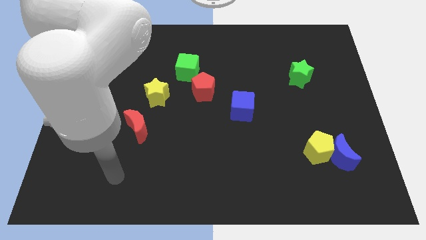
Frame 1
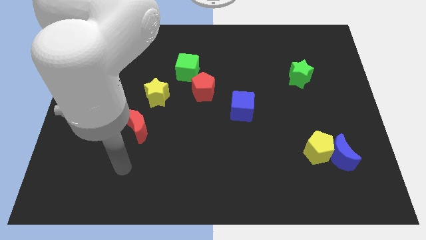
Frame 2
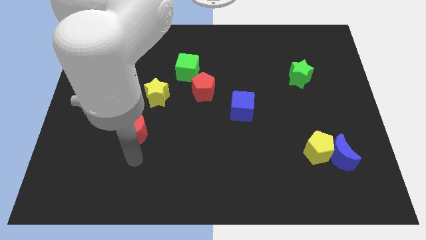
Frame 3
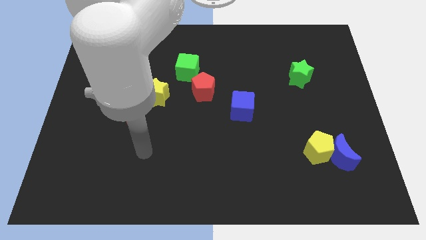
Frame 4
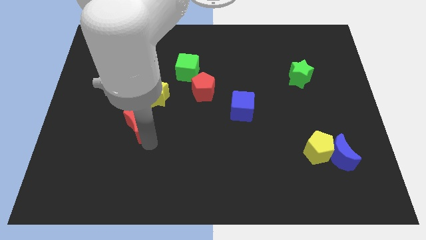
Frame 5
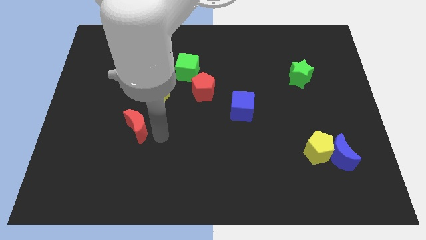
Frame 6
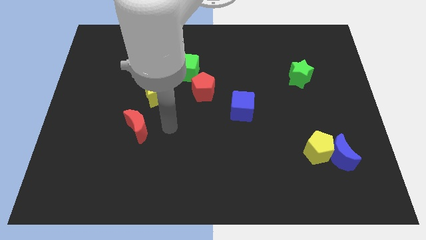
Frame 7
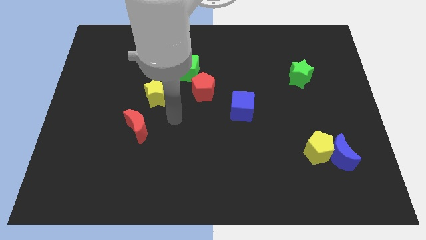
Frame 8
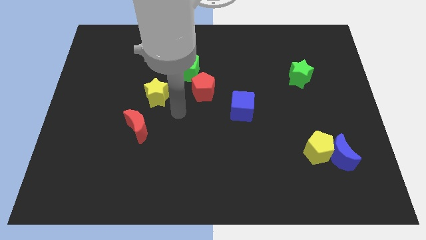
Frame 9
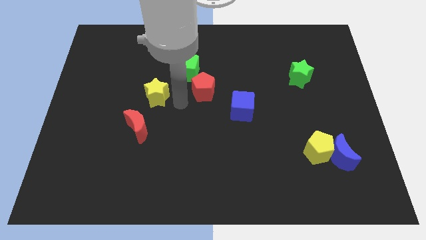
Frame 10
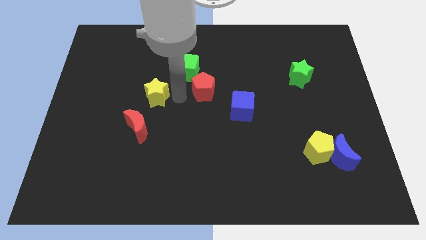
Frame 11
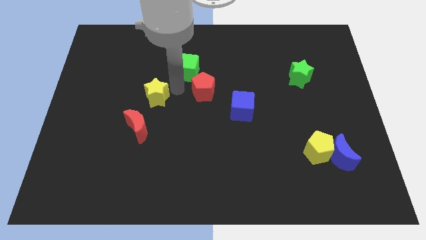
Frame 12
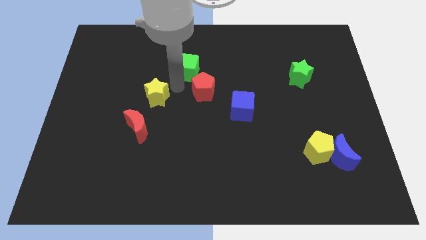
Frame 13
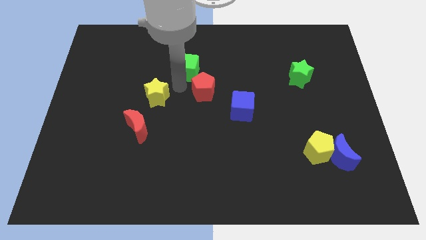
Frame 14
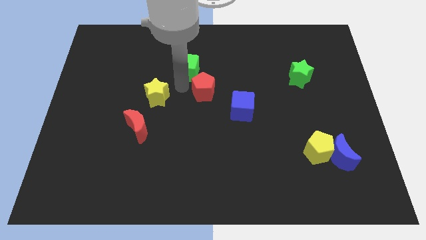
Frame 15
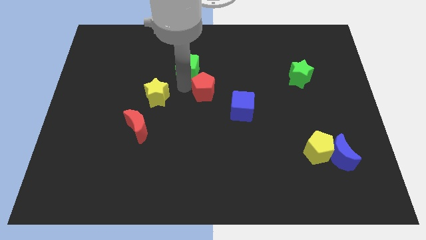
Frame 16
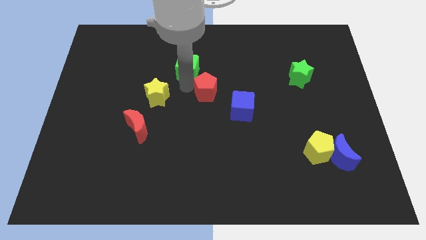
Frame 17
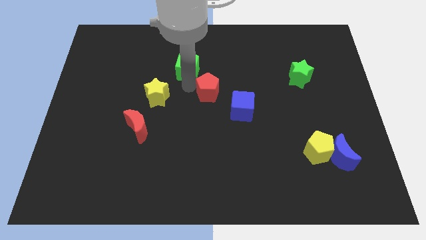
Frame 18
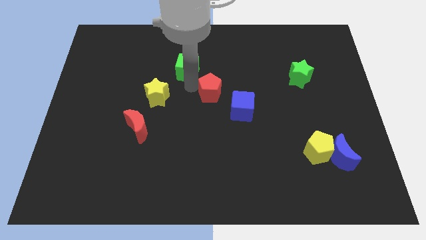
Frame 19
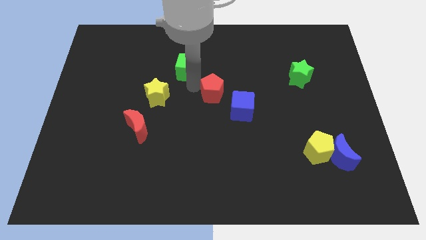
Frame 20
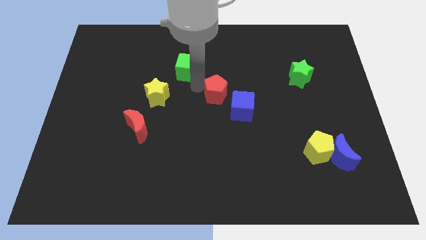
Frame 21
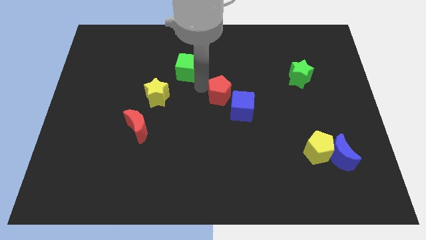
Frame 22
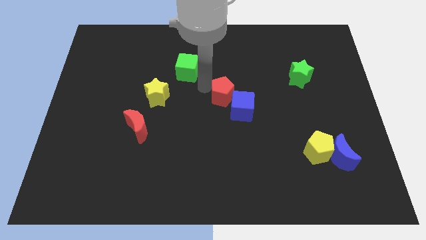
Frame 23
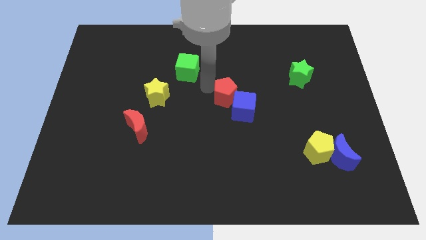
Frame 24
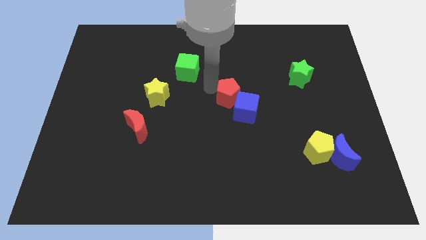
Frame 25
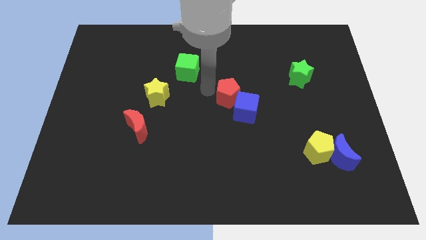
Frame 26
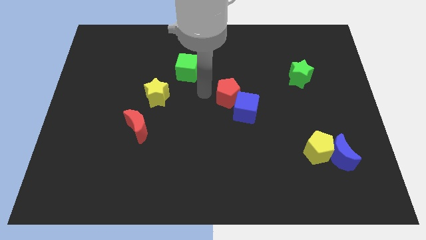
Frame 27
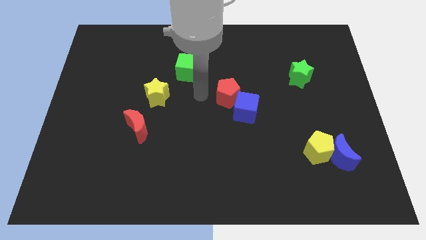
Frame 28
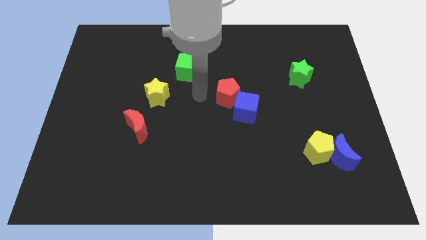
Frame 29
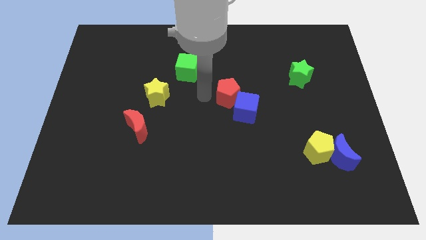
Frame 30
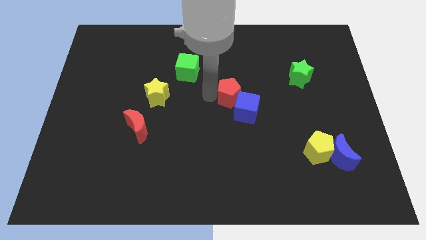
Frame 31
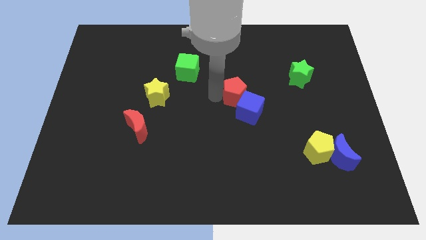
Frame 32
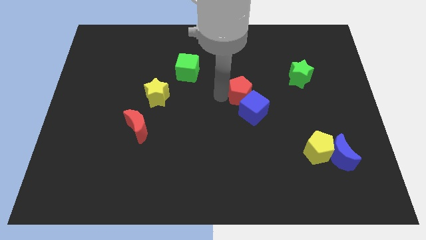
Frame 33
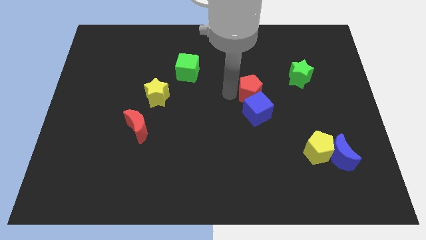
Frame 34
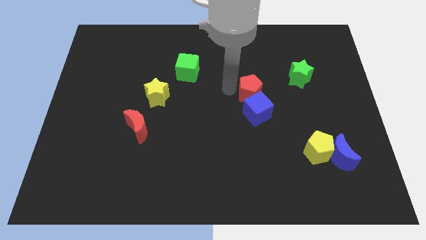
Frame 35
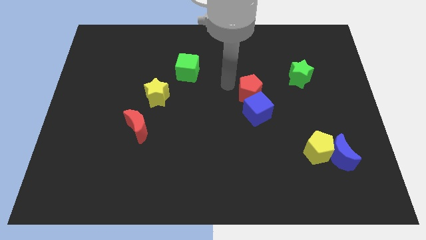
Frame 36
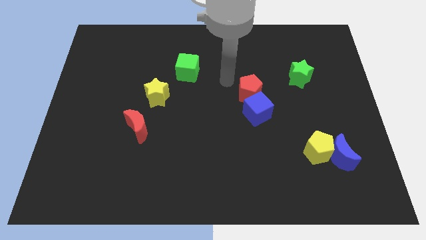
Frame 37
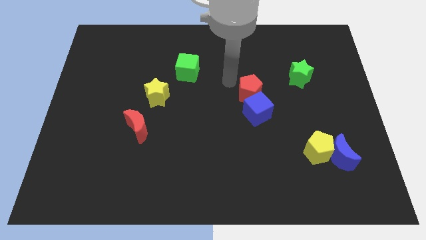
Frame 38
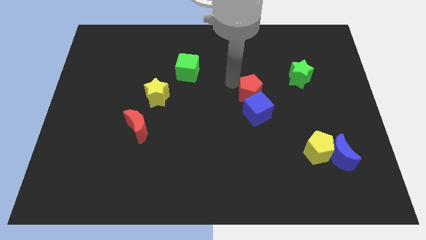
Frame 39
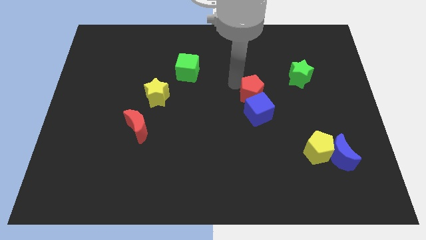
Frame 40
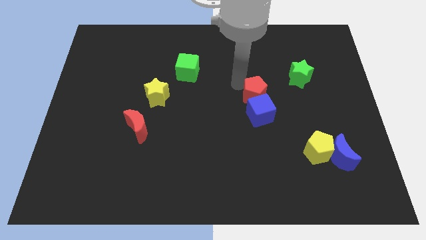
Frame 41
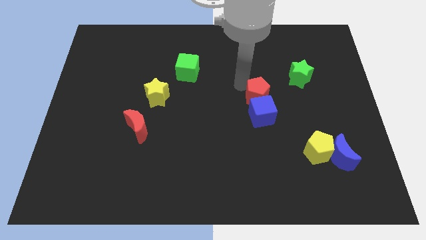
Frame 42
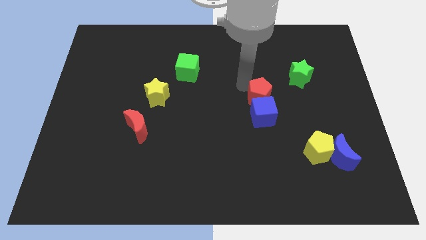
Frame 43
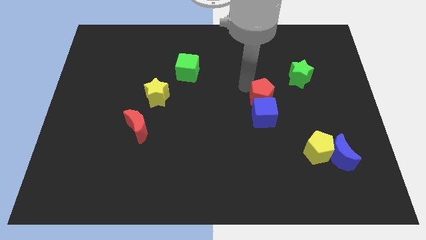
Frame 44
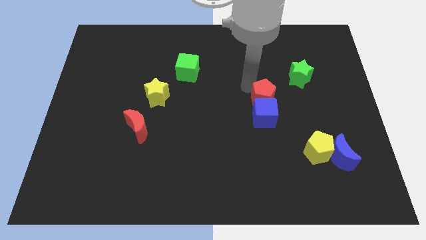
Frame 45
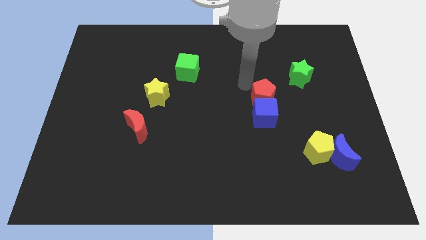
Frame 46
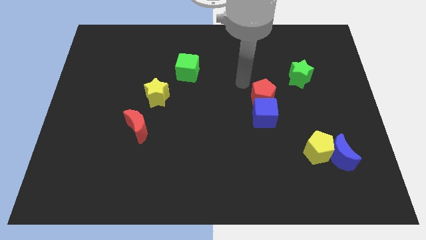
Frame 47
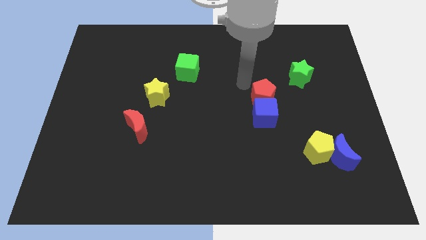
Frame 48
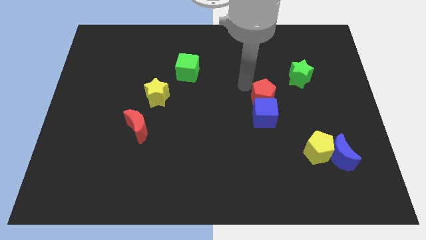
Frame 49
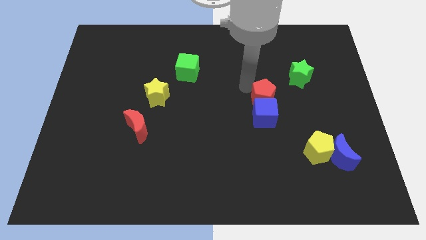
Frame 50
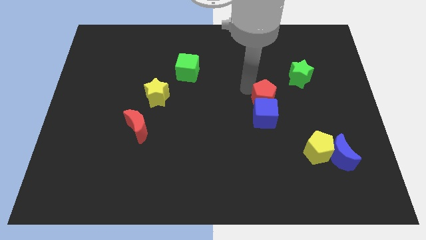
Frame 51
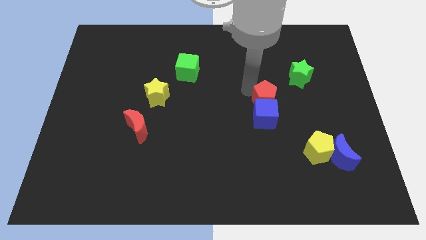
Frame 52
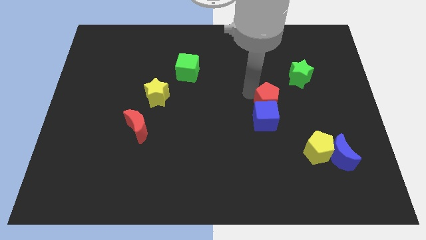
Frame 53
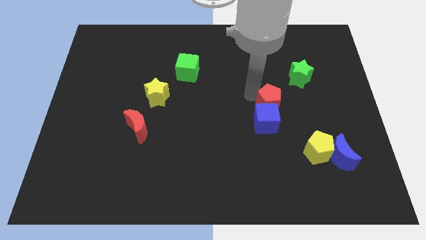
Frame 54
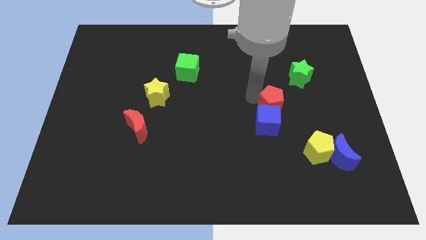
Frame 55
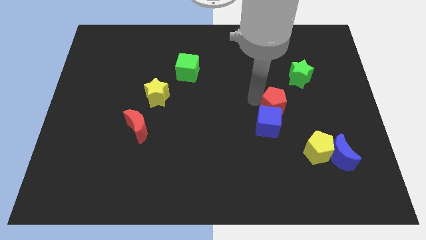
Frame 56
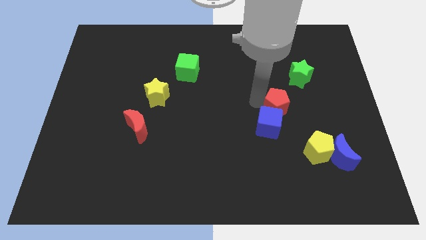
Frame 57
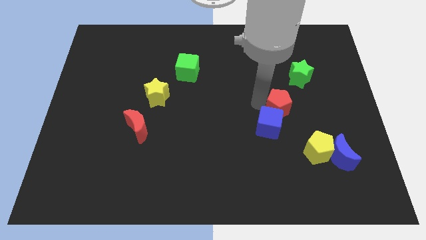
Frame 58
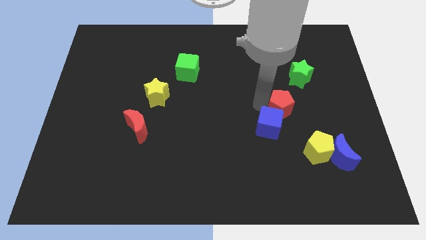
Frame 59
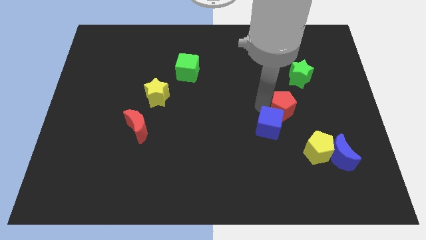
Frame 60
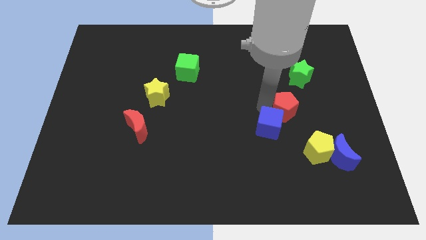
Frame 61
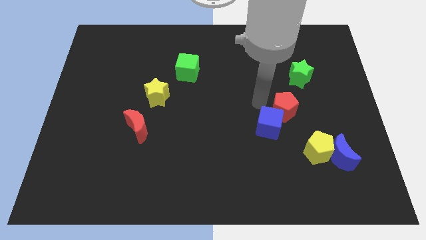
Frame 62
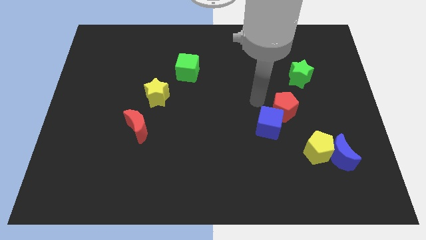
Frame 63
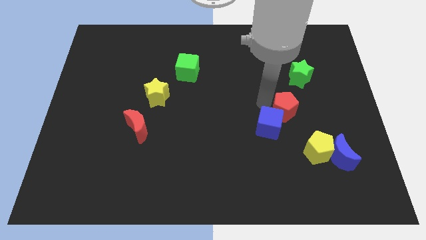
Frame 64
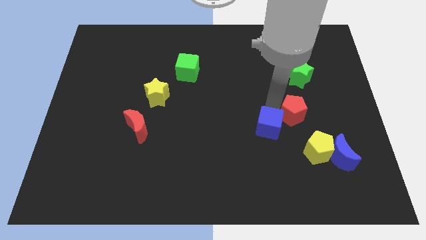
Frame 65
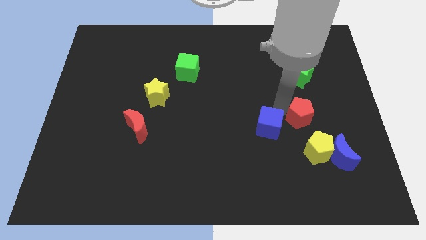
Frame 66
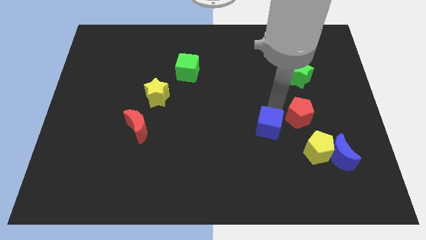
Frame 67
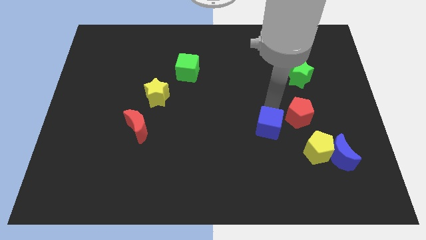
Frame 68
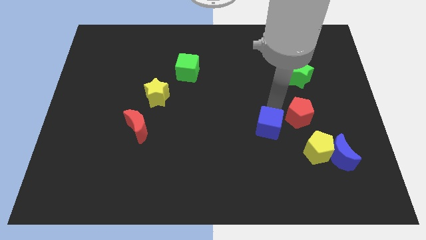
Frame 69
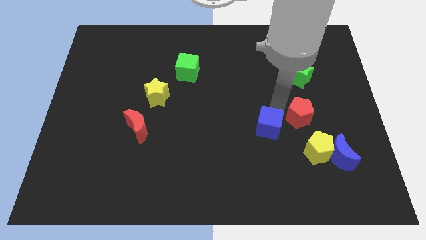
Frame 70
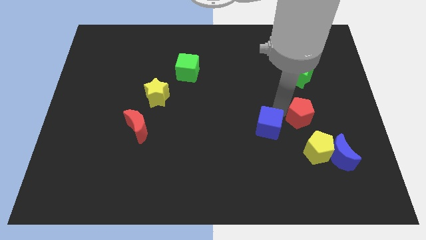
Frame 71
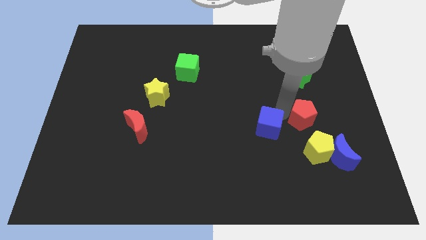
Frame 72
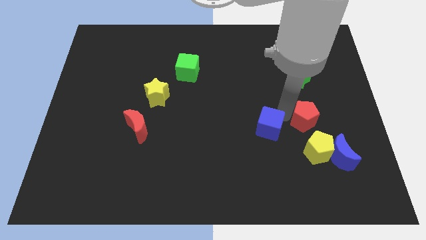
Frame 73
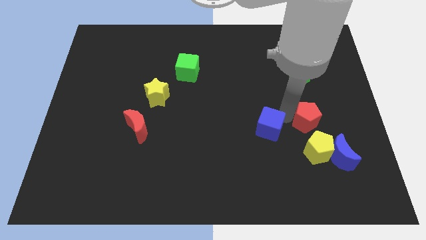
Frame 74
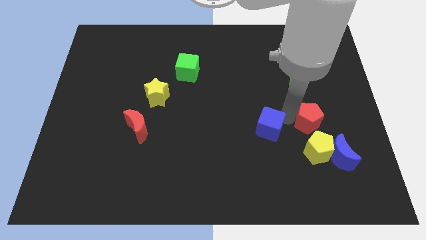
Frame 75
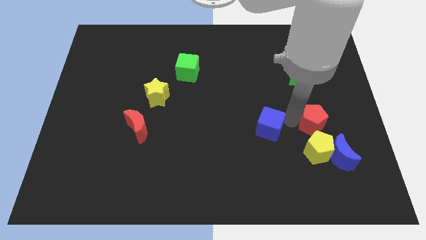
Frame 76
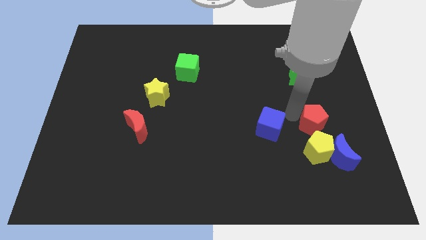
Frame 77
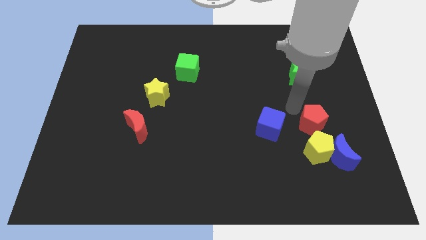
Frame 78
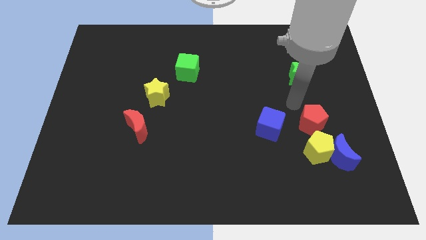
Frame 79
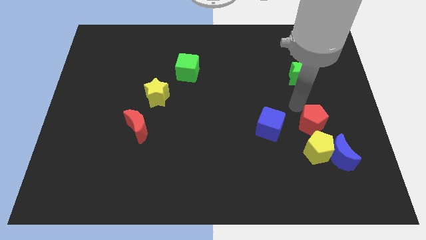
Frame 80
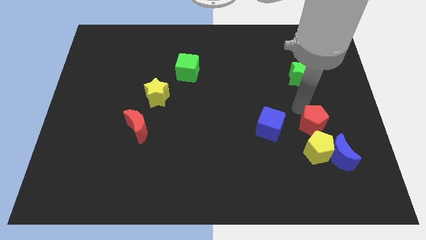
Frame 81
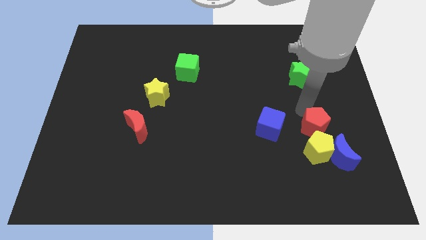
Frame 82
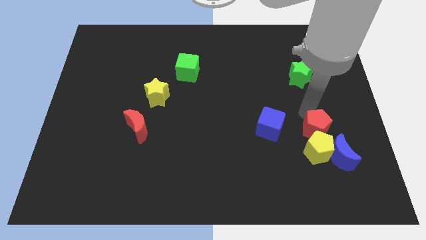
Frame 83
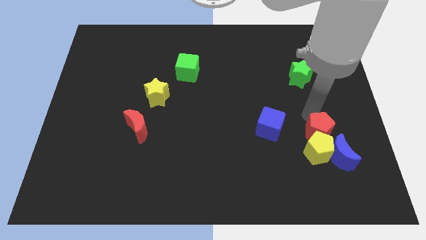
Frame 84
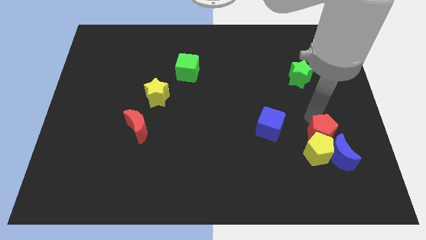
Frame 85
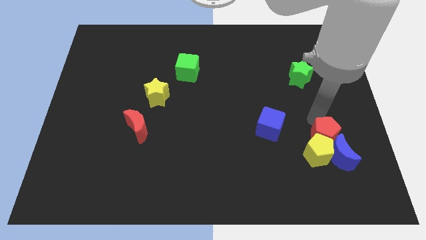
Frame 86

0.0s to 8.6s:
put the red pentagon close to the blue moon
